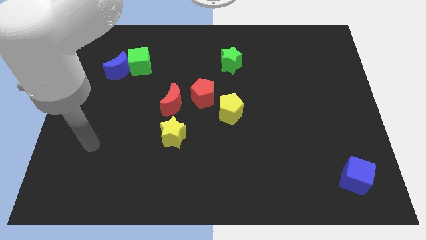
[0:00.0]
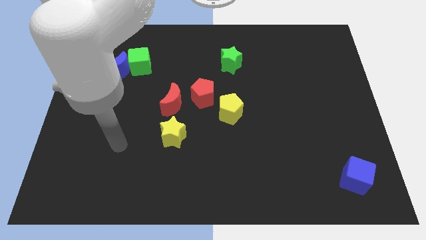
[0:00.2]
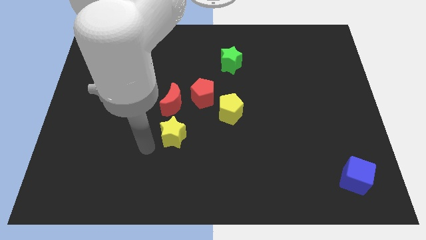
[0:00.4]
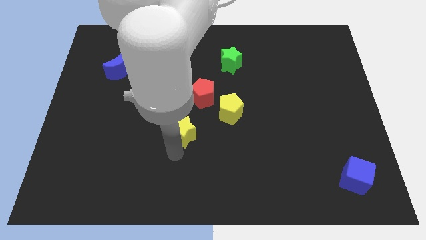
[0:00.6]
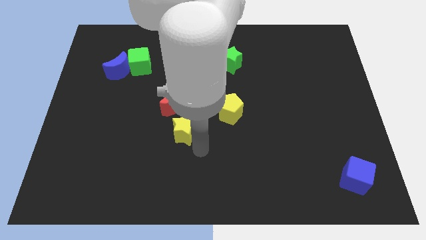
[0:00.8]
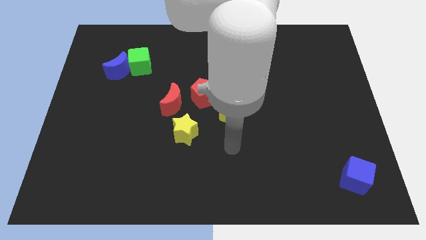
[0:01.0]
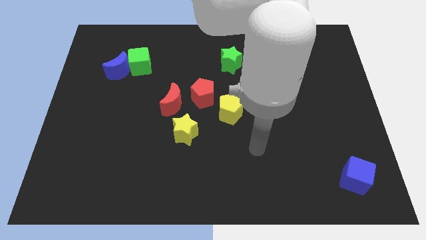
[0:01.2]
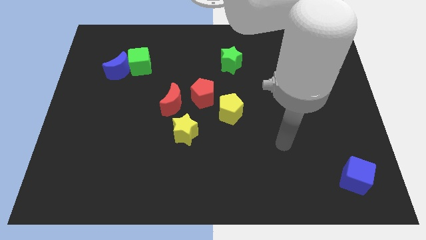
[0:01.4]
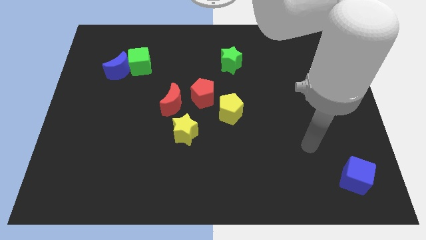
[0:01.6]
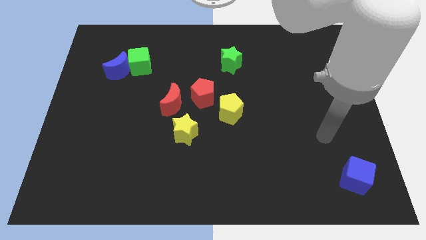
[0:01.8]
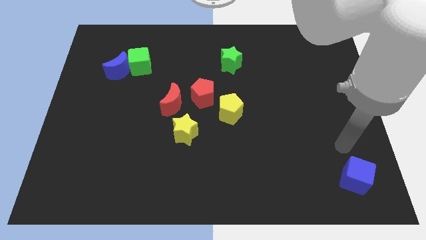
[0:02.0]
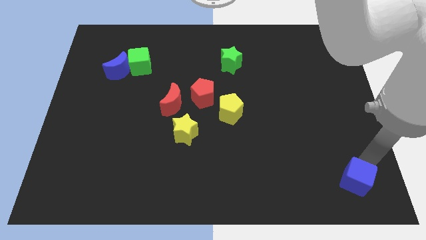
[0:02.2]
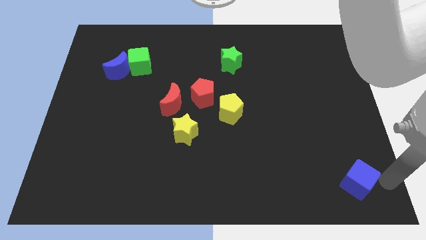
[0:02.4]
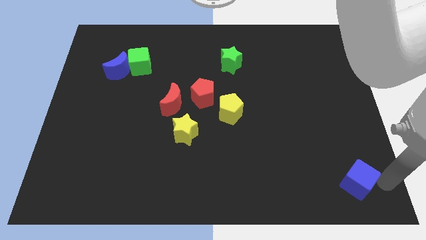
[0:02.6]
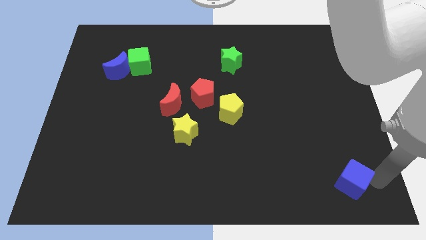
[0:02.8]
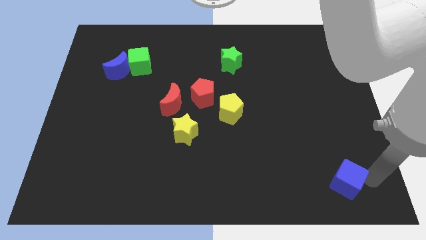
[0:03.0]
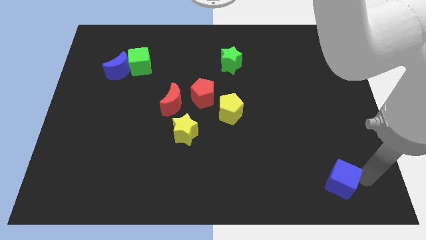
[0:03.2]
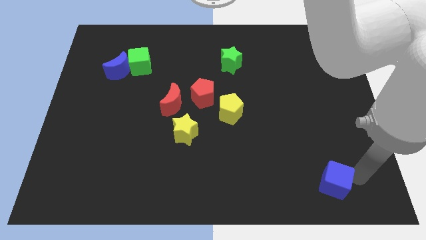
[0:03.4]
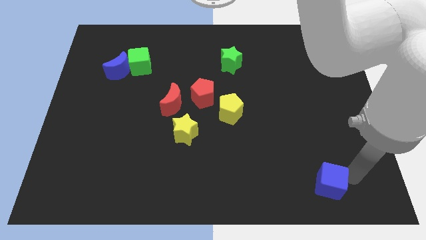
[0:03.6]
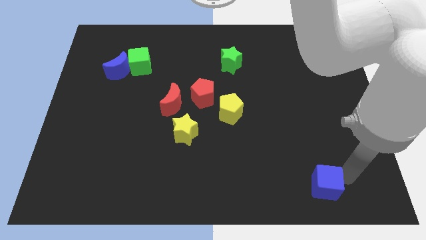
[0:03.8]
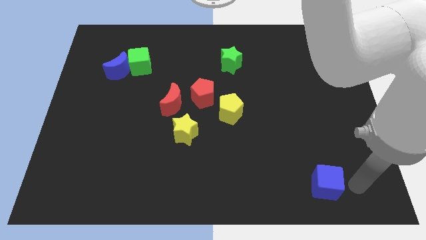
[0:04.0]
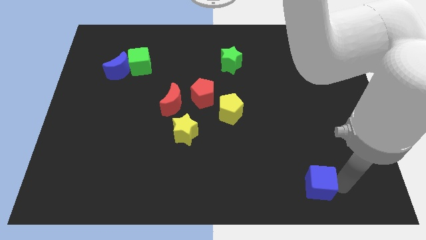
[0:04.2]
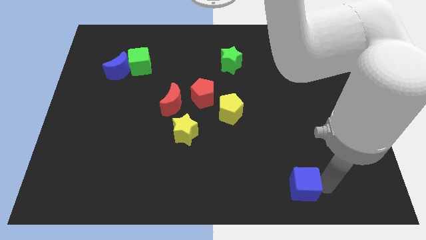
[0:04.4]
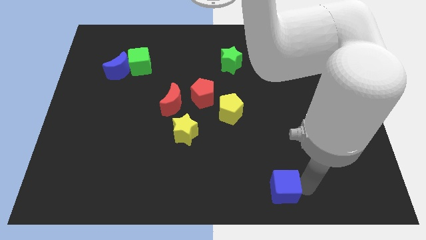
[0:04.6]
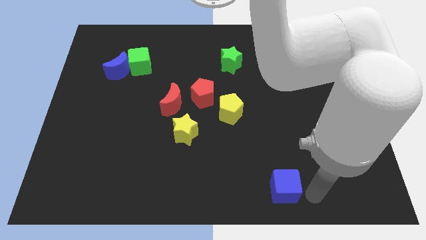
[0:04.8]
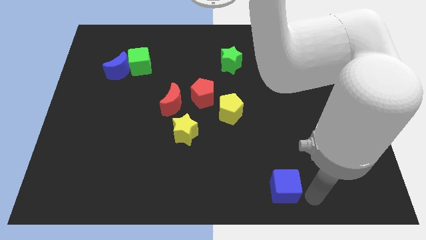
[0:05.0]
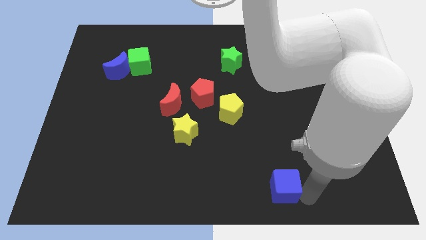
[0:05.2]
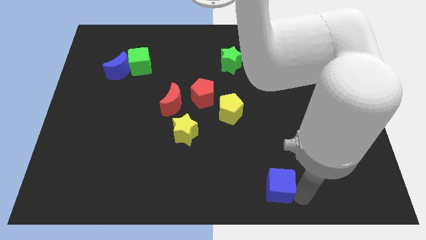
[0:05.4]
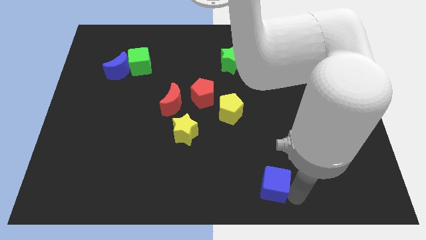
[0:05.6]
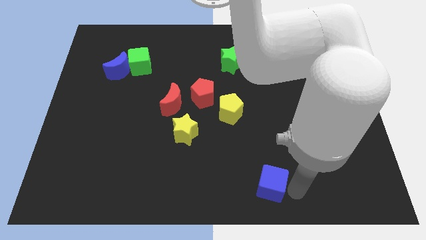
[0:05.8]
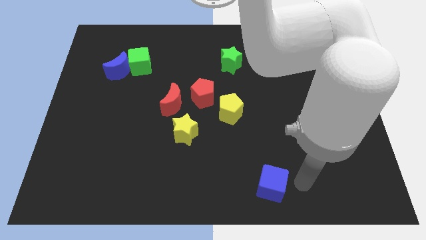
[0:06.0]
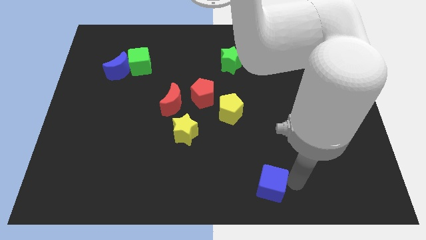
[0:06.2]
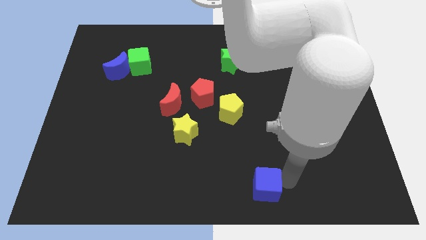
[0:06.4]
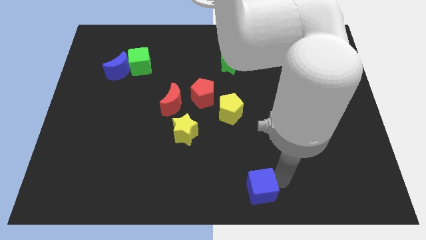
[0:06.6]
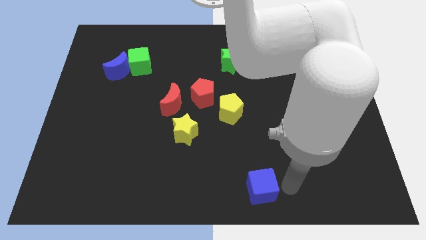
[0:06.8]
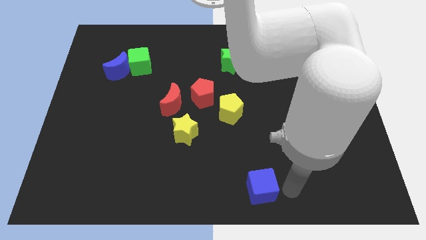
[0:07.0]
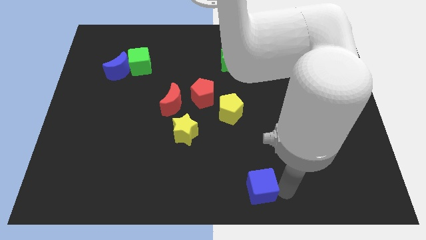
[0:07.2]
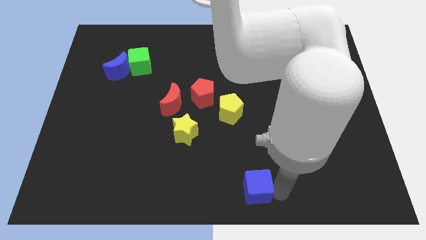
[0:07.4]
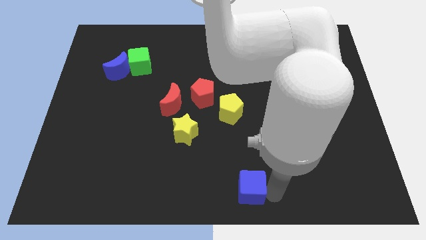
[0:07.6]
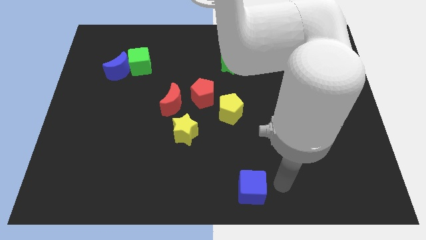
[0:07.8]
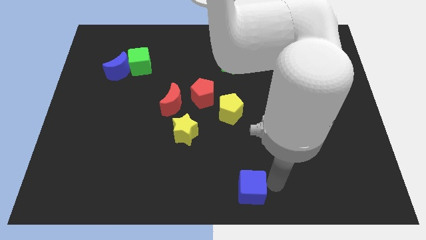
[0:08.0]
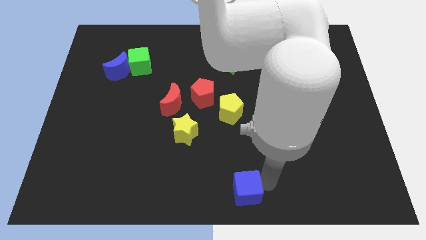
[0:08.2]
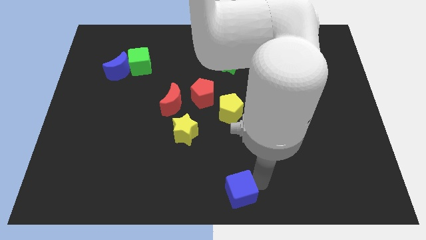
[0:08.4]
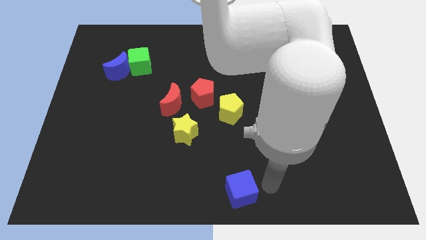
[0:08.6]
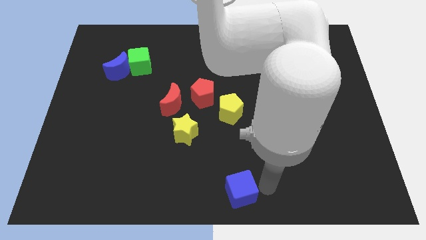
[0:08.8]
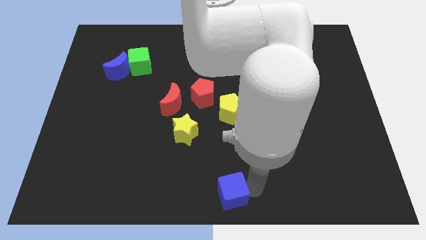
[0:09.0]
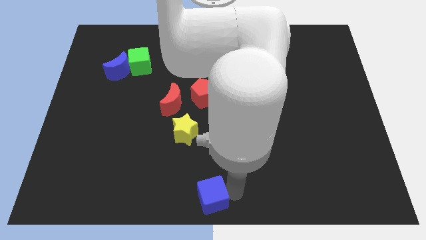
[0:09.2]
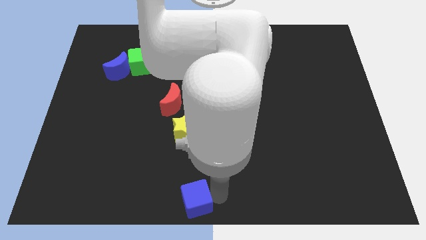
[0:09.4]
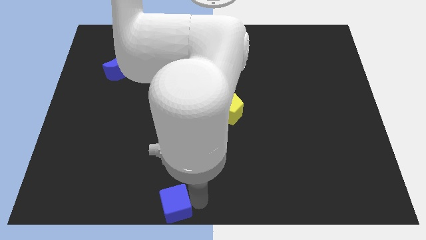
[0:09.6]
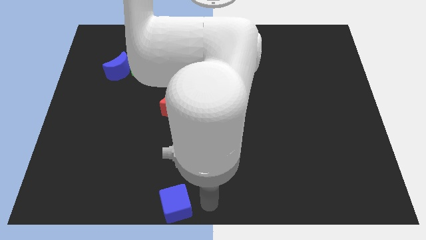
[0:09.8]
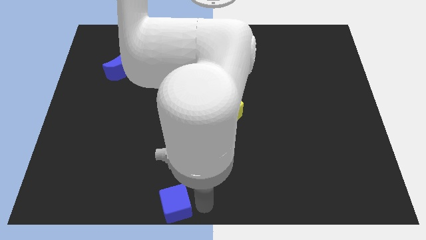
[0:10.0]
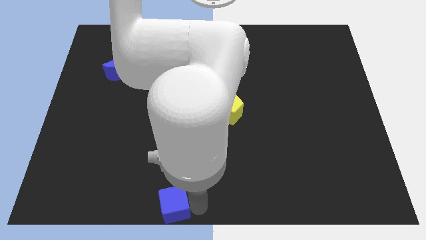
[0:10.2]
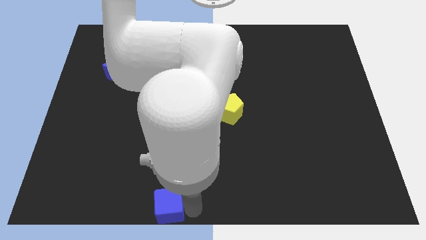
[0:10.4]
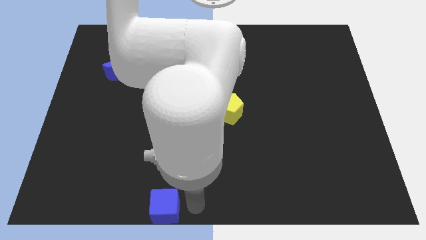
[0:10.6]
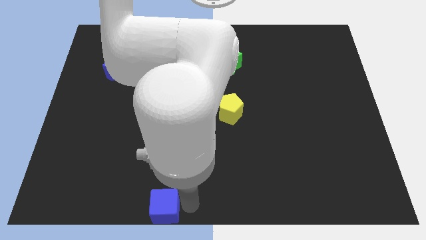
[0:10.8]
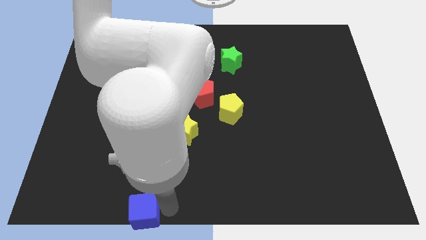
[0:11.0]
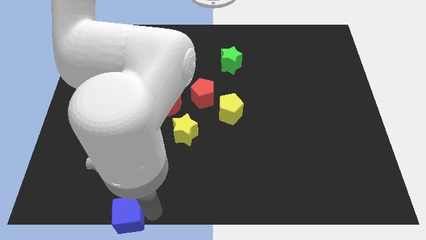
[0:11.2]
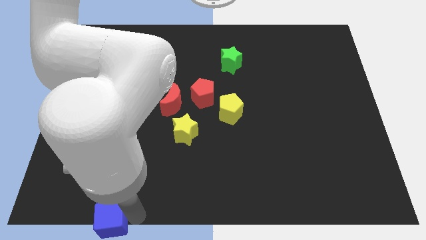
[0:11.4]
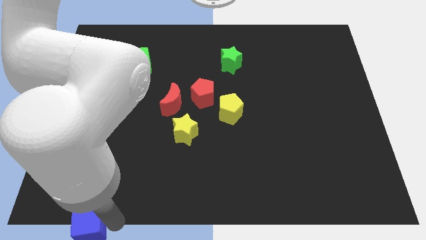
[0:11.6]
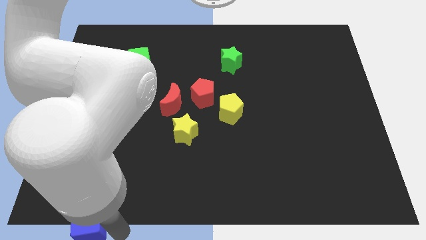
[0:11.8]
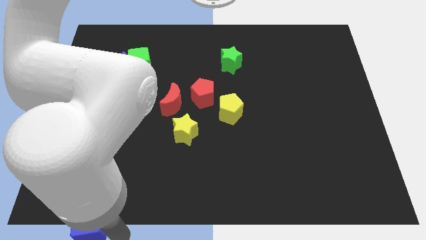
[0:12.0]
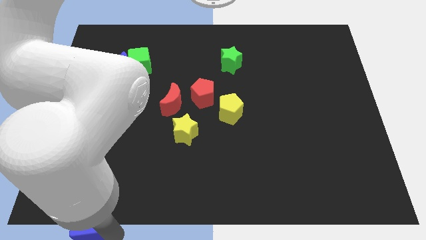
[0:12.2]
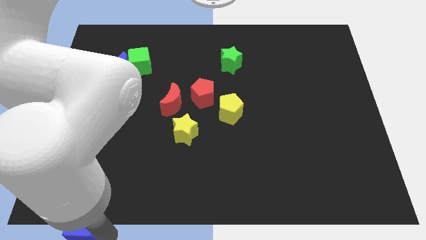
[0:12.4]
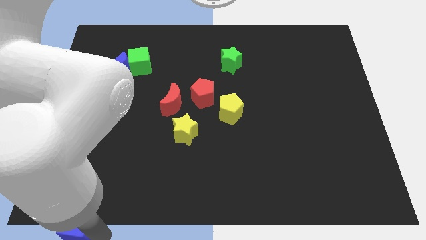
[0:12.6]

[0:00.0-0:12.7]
push the blue cube to the bottom left corner
